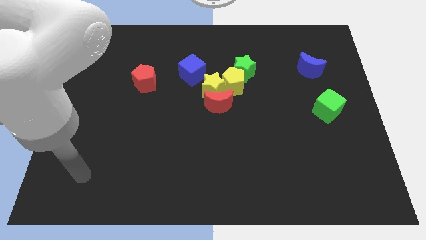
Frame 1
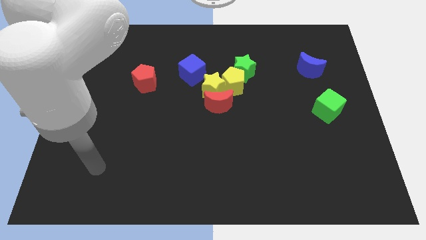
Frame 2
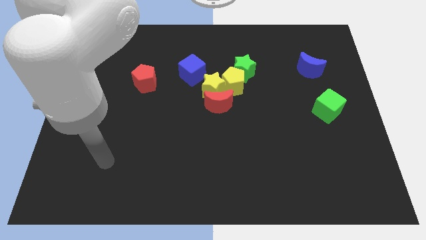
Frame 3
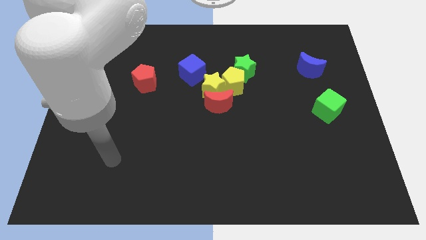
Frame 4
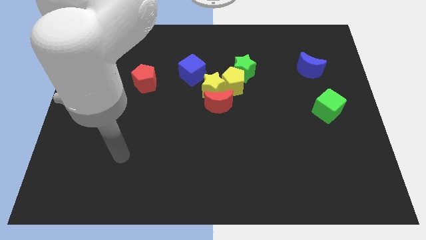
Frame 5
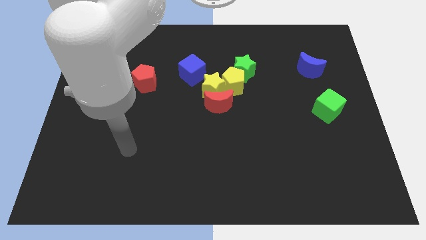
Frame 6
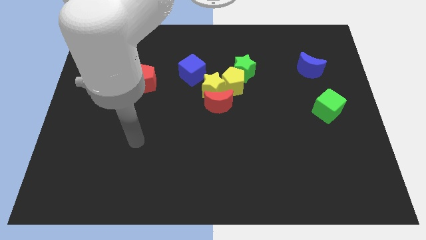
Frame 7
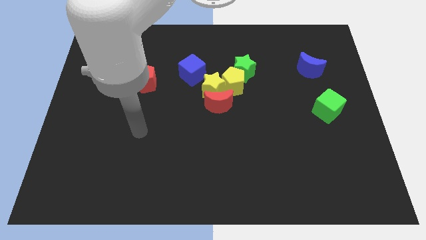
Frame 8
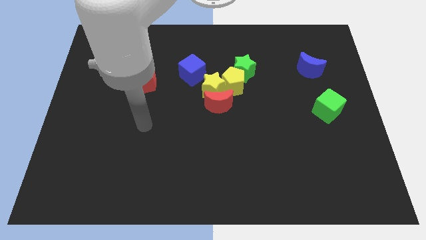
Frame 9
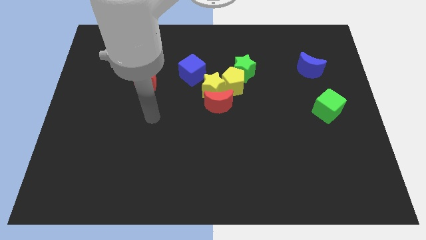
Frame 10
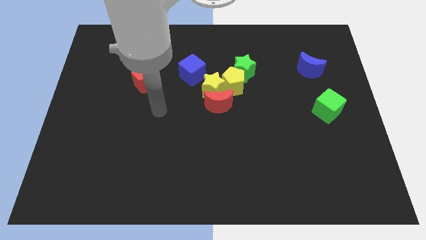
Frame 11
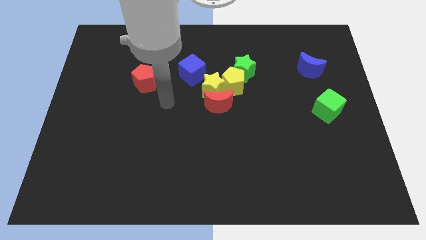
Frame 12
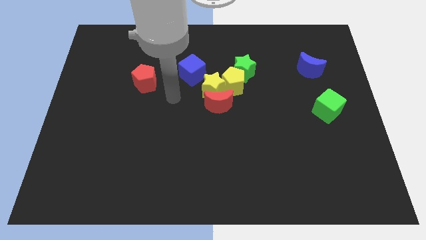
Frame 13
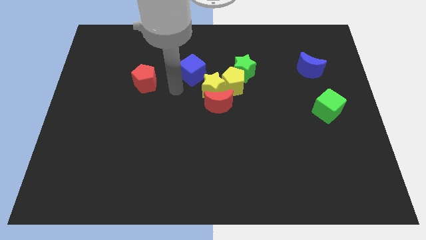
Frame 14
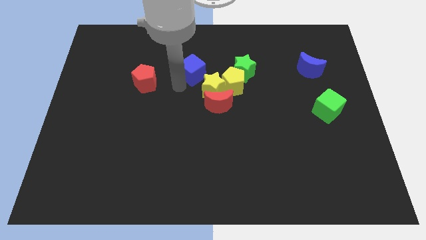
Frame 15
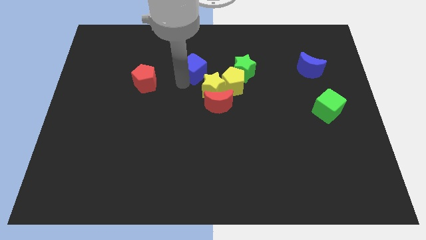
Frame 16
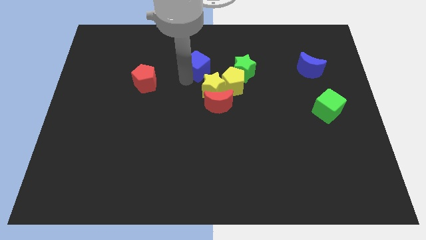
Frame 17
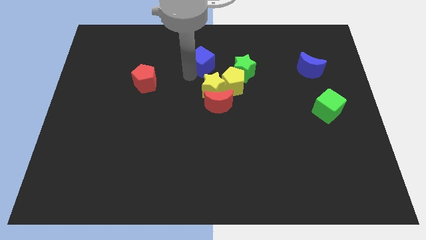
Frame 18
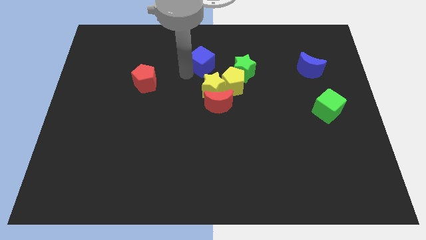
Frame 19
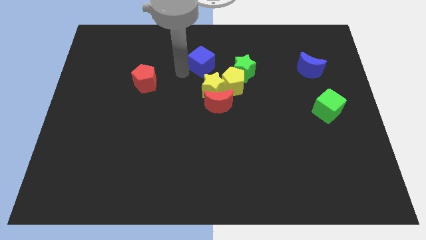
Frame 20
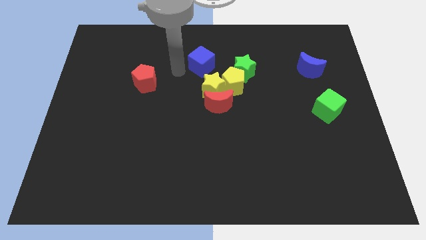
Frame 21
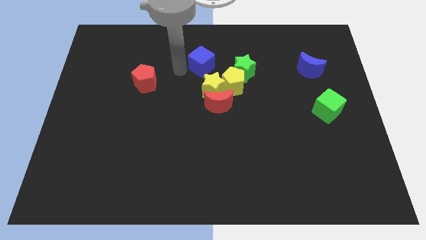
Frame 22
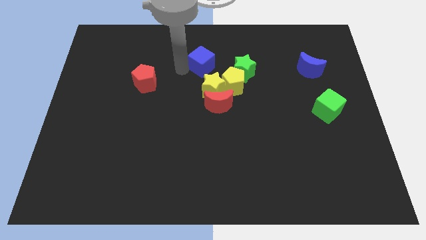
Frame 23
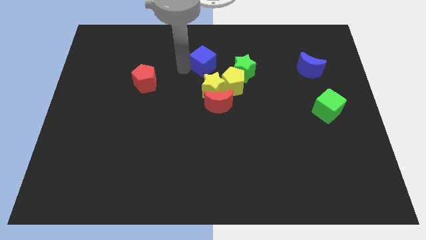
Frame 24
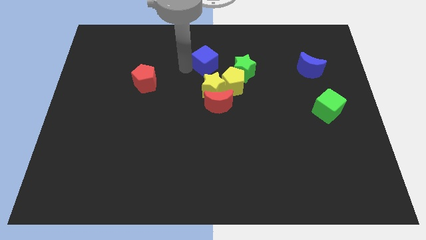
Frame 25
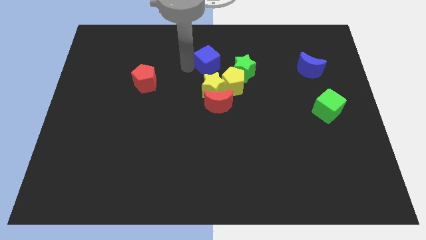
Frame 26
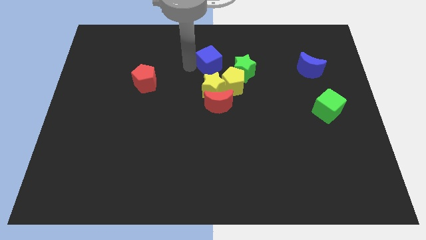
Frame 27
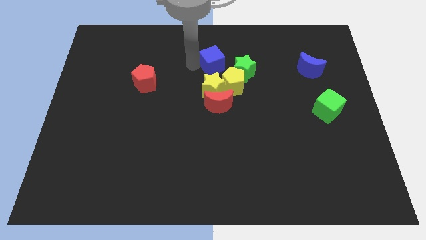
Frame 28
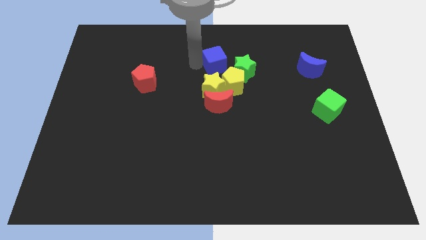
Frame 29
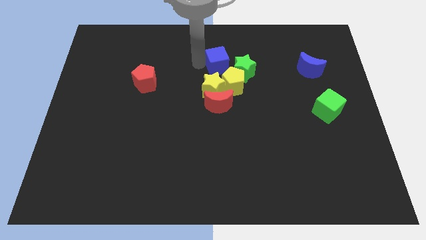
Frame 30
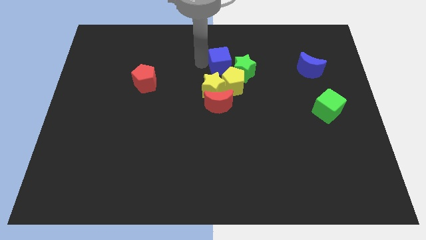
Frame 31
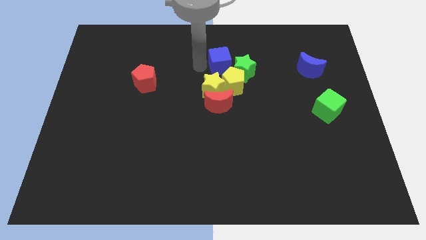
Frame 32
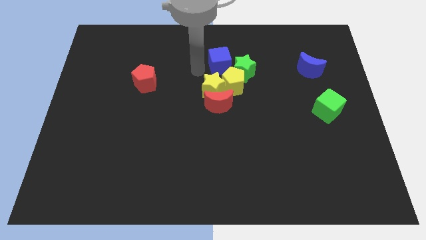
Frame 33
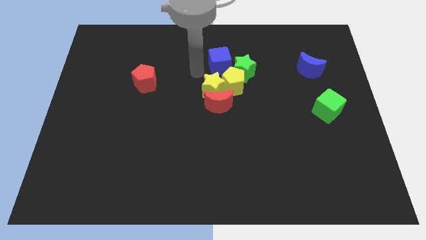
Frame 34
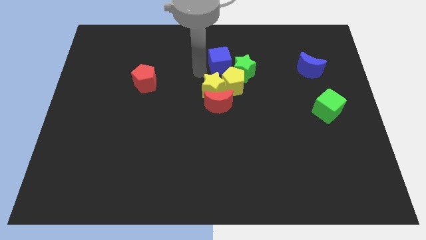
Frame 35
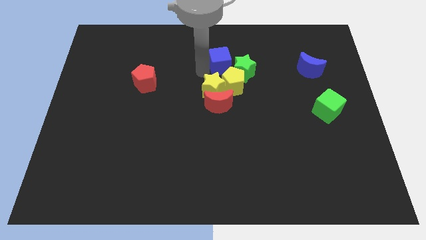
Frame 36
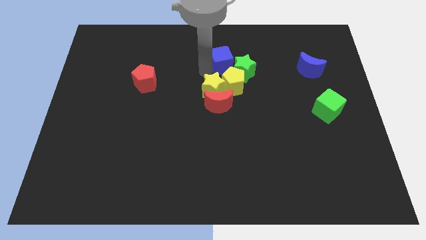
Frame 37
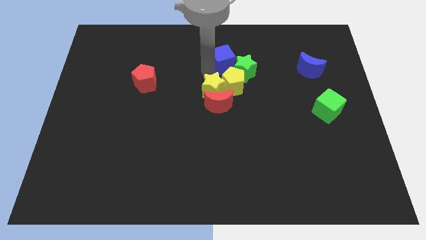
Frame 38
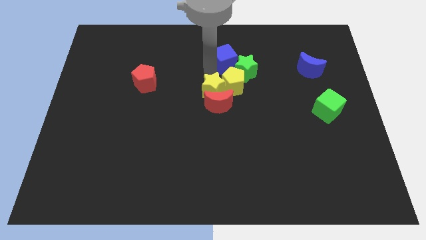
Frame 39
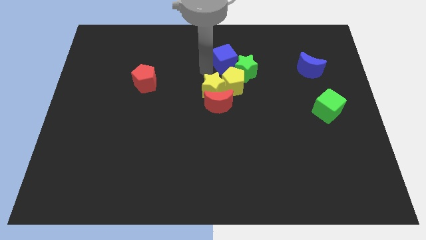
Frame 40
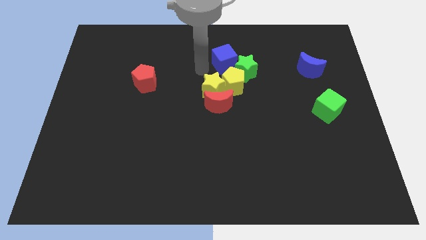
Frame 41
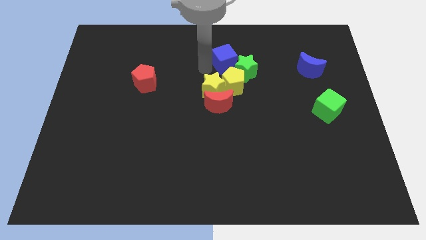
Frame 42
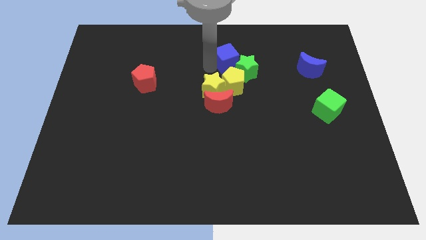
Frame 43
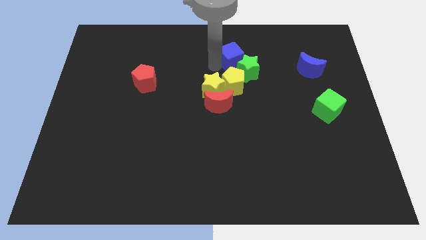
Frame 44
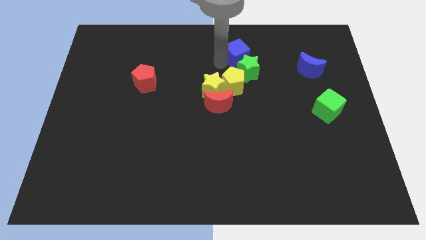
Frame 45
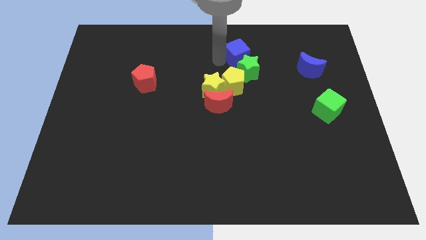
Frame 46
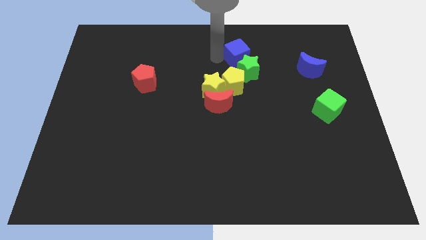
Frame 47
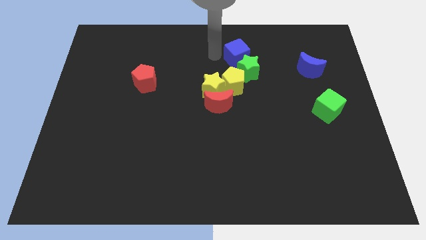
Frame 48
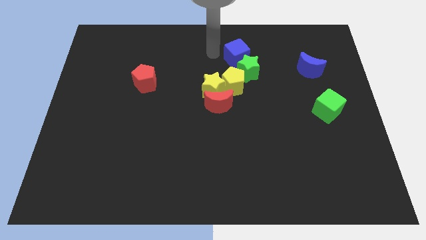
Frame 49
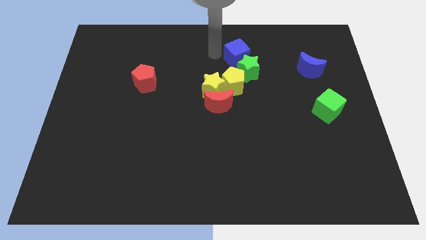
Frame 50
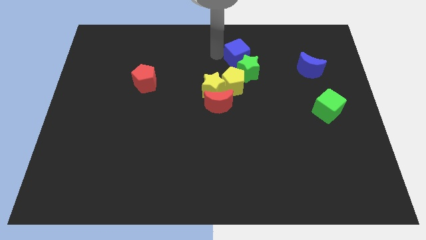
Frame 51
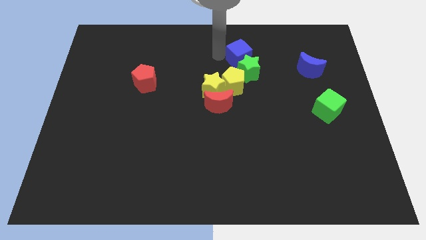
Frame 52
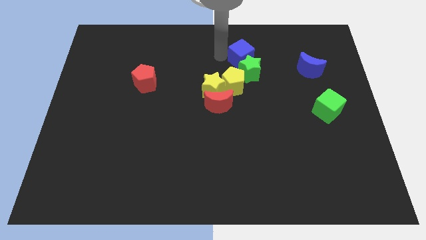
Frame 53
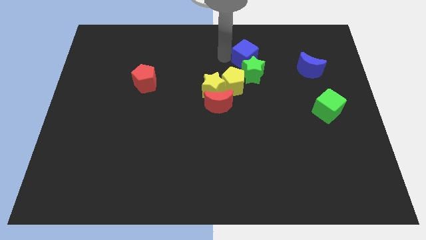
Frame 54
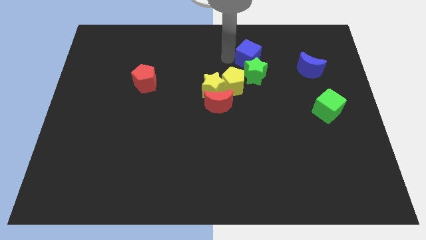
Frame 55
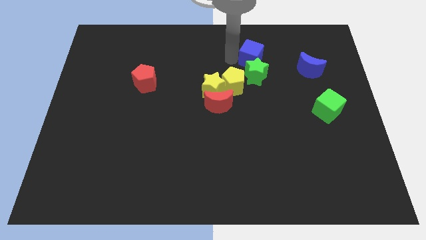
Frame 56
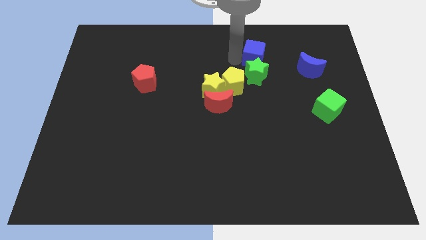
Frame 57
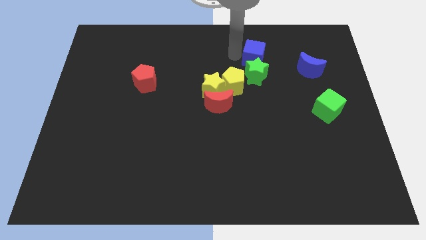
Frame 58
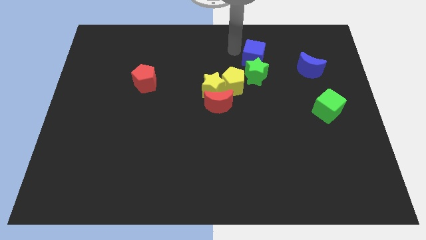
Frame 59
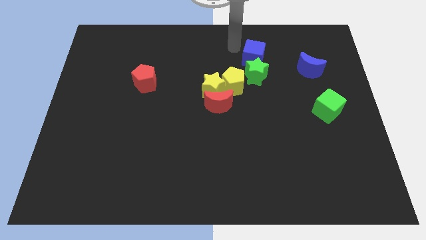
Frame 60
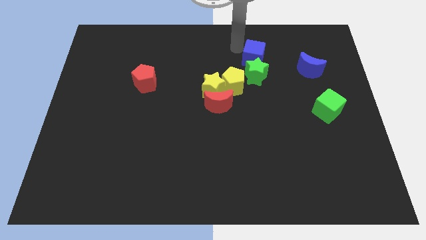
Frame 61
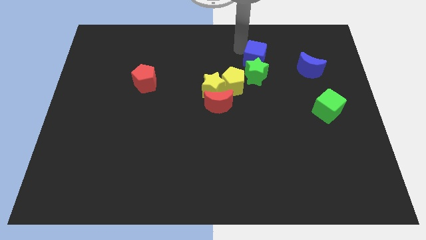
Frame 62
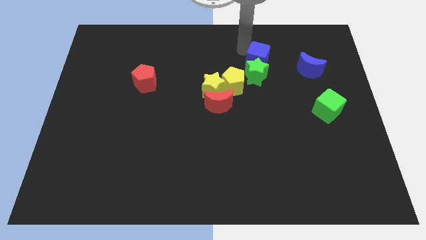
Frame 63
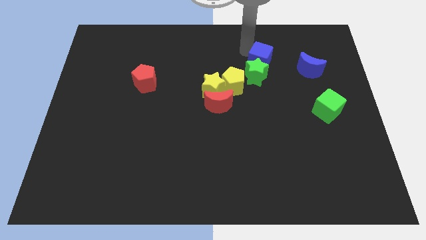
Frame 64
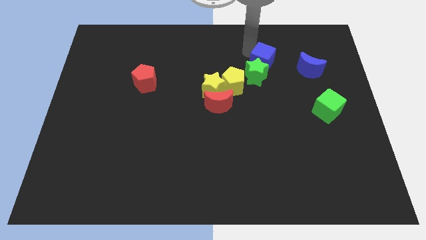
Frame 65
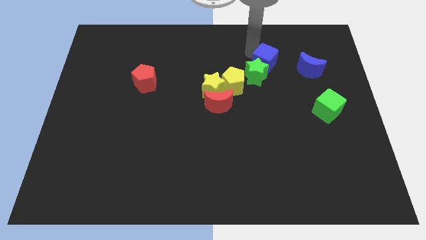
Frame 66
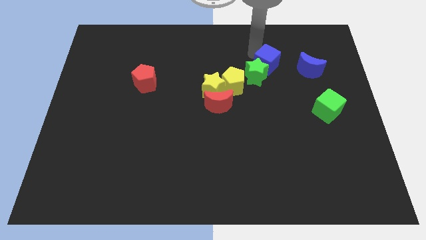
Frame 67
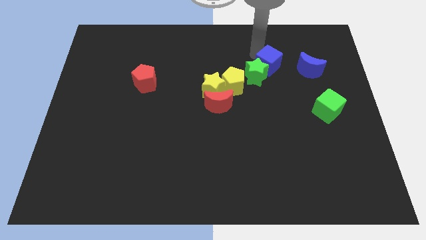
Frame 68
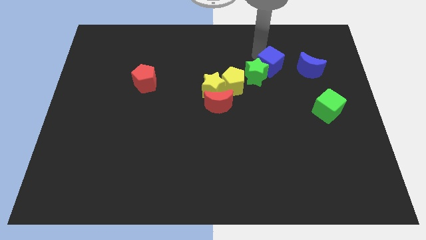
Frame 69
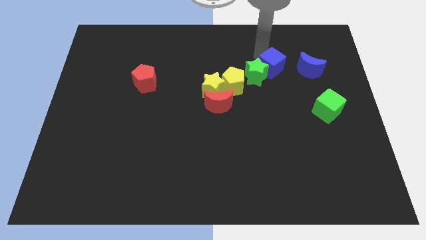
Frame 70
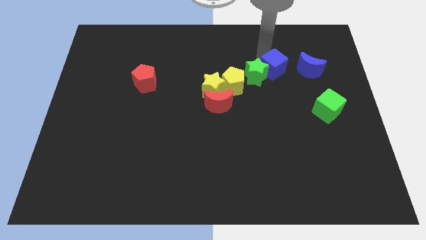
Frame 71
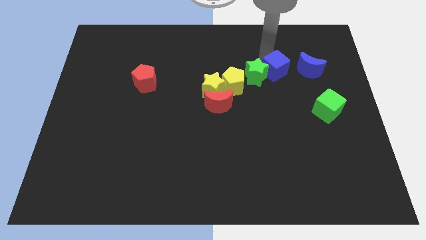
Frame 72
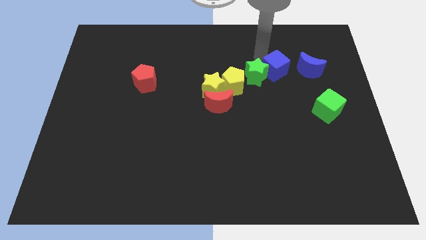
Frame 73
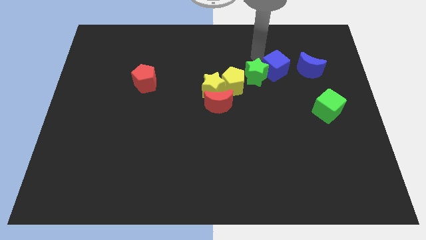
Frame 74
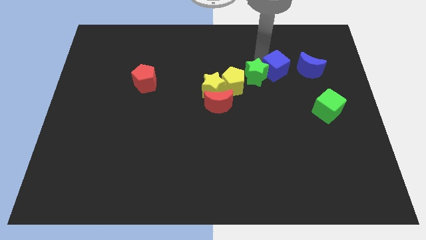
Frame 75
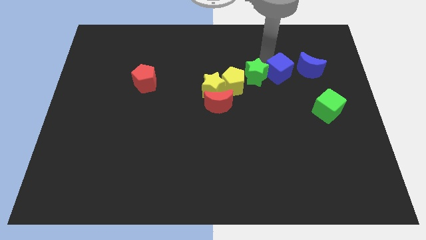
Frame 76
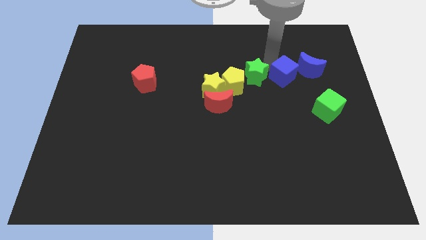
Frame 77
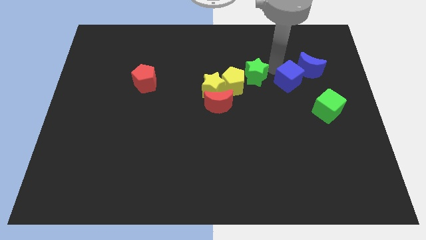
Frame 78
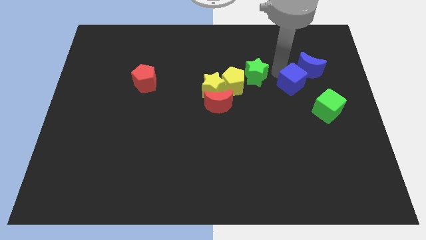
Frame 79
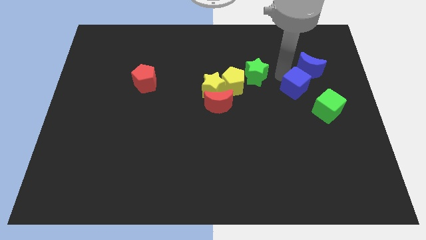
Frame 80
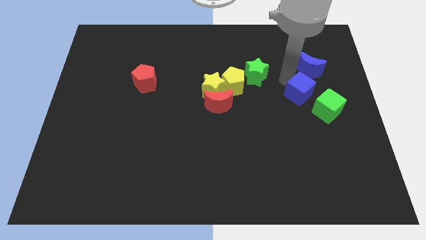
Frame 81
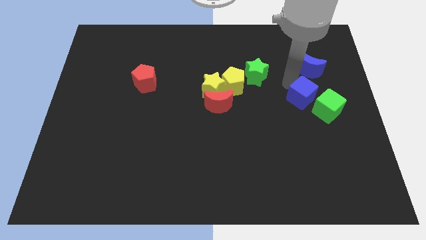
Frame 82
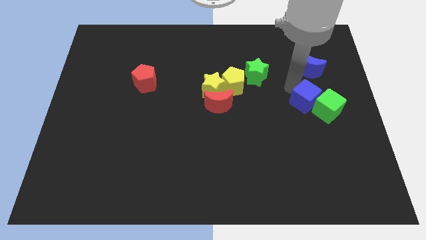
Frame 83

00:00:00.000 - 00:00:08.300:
slide the blue cube towards the green cube
